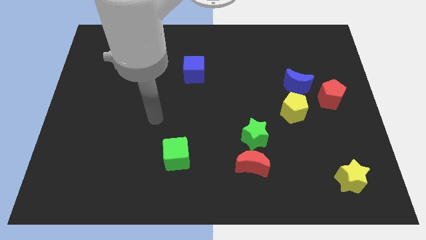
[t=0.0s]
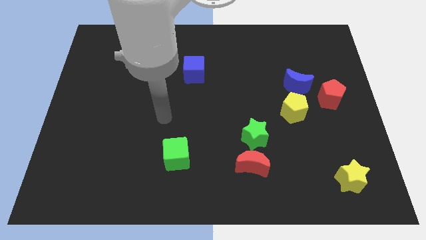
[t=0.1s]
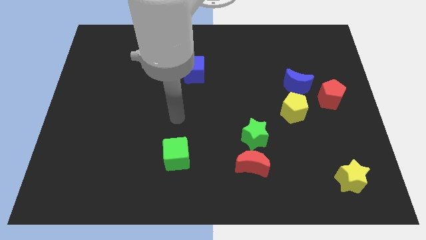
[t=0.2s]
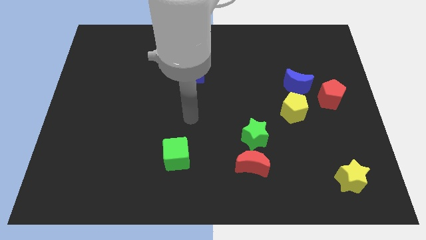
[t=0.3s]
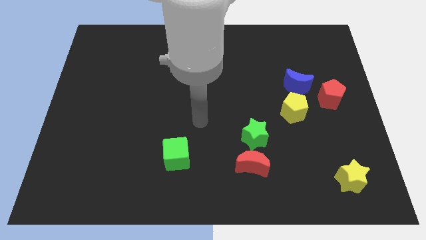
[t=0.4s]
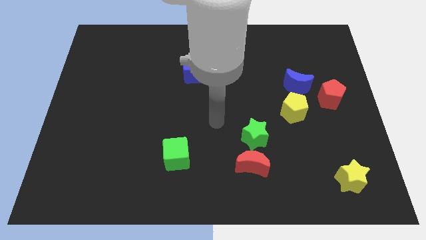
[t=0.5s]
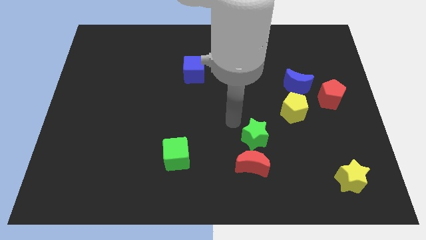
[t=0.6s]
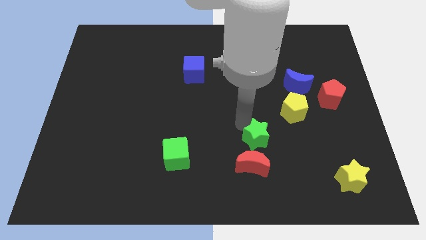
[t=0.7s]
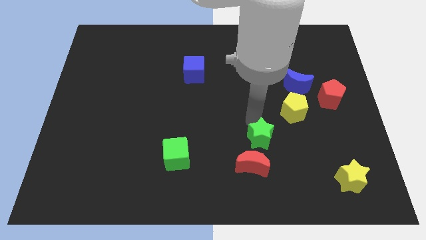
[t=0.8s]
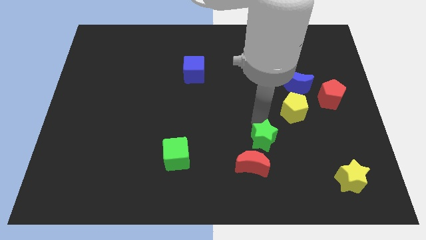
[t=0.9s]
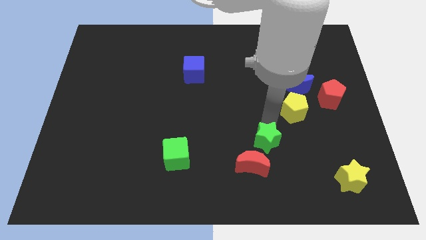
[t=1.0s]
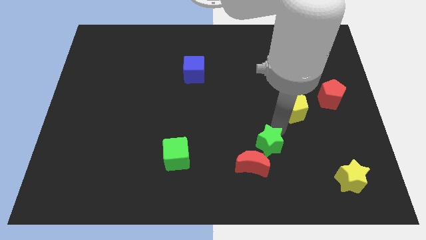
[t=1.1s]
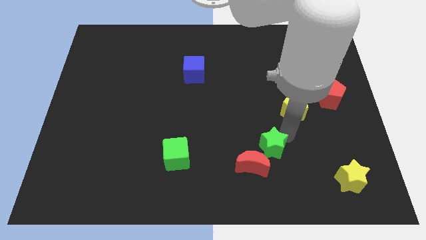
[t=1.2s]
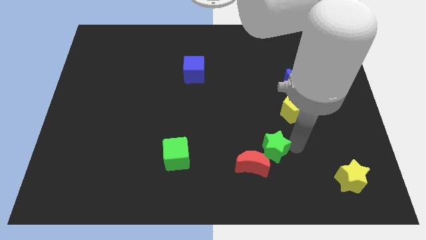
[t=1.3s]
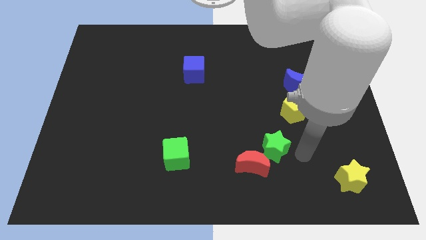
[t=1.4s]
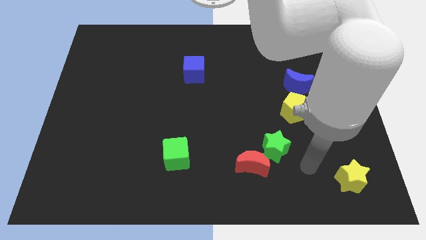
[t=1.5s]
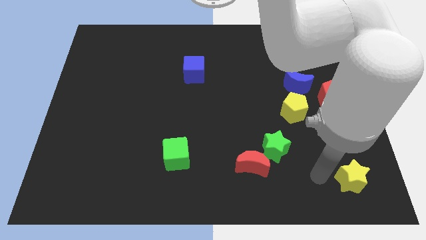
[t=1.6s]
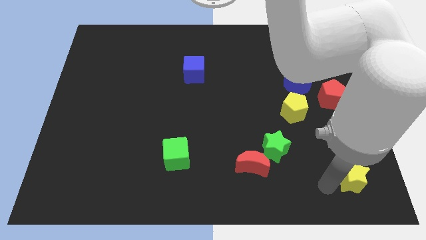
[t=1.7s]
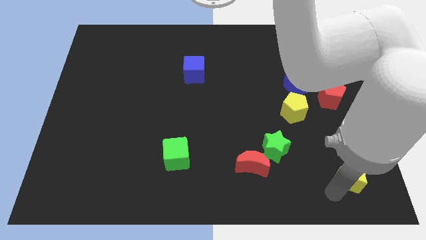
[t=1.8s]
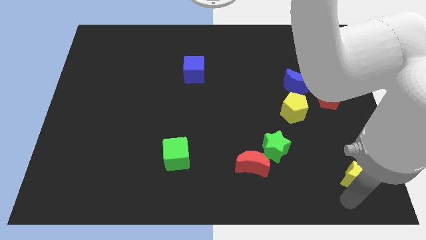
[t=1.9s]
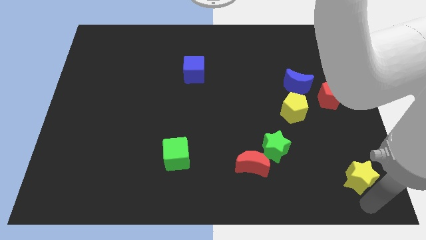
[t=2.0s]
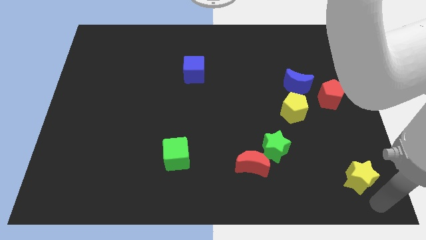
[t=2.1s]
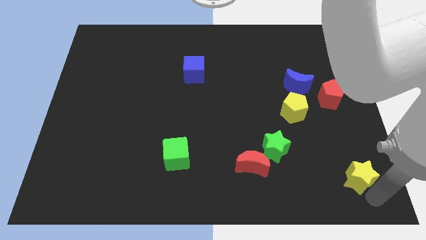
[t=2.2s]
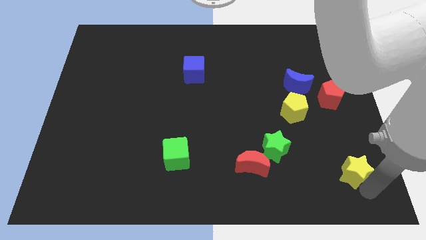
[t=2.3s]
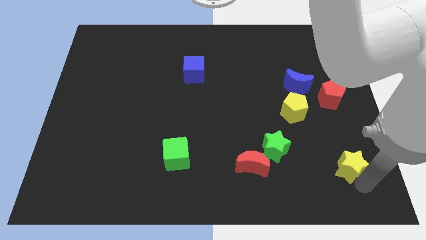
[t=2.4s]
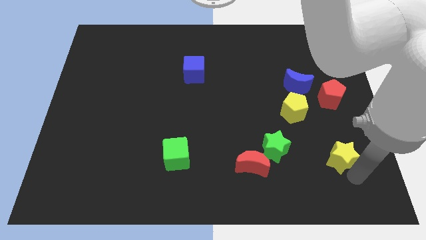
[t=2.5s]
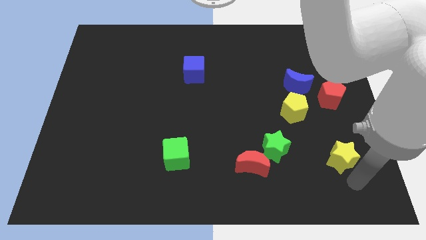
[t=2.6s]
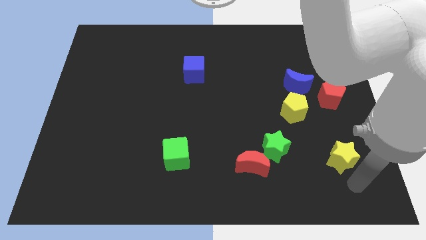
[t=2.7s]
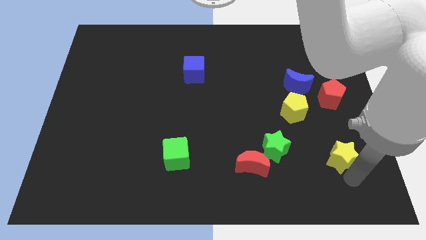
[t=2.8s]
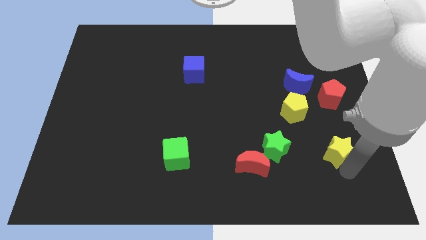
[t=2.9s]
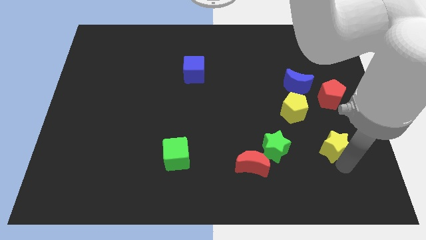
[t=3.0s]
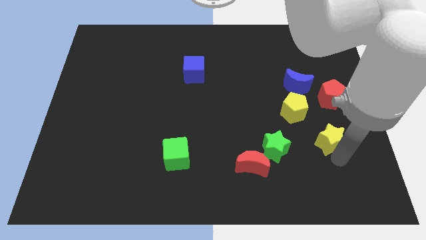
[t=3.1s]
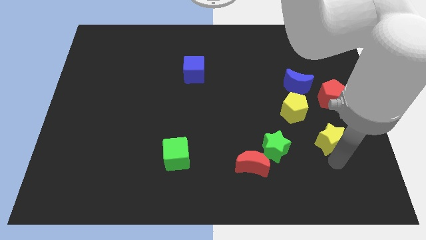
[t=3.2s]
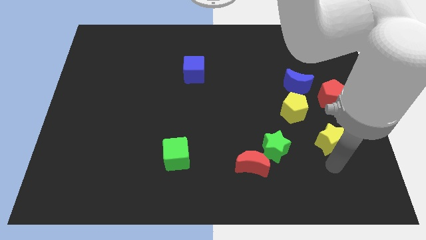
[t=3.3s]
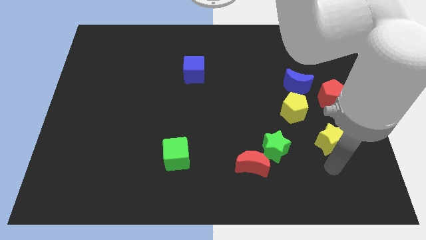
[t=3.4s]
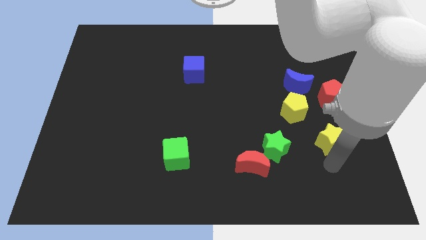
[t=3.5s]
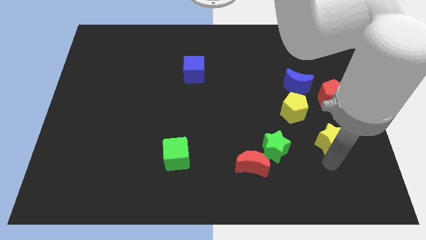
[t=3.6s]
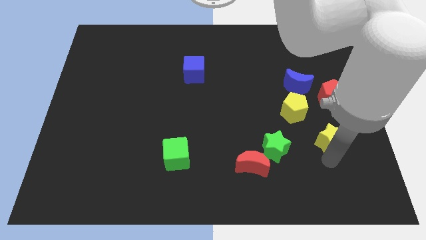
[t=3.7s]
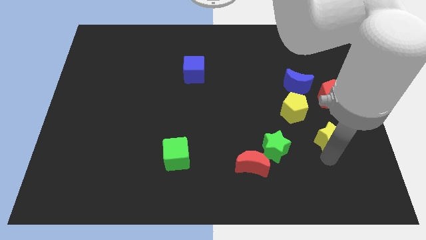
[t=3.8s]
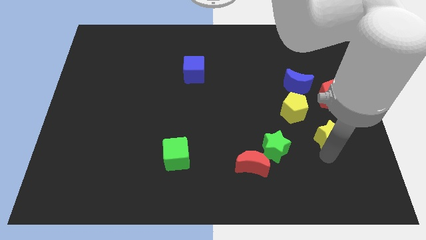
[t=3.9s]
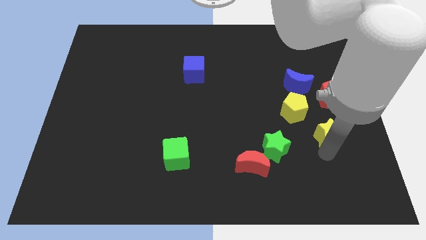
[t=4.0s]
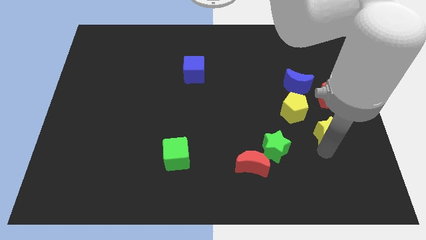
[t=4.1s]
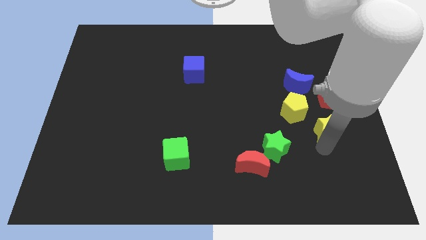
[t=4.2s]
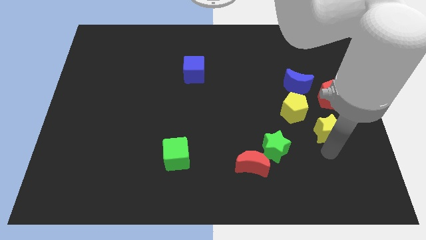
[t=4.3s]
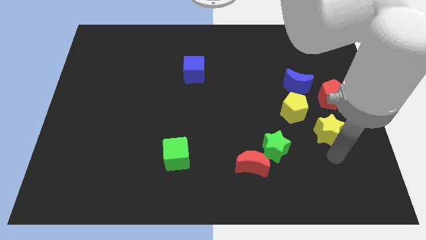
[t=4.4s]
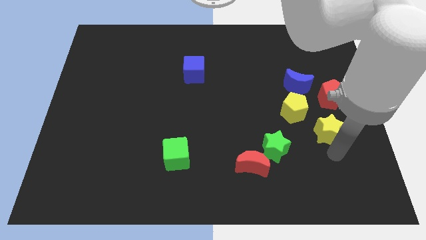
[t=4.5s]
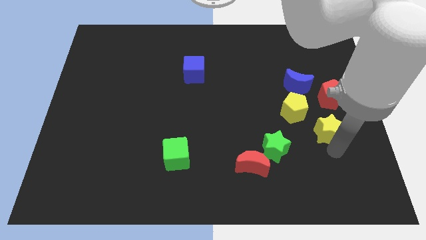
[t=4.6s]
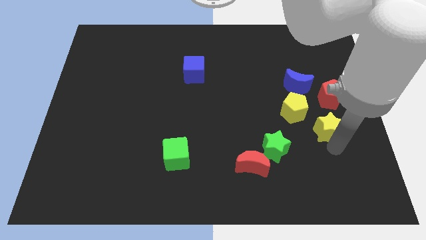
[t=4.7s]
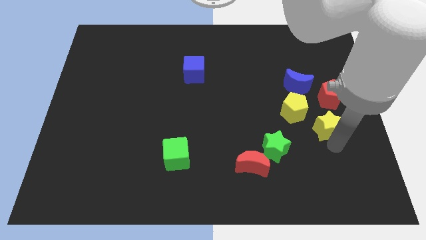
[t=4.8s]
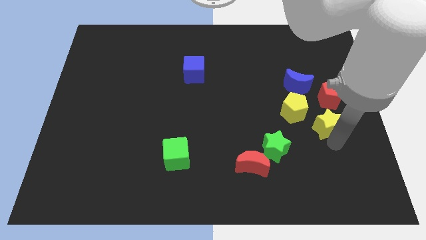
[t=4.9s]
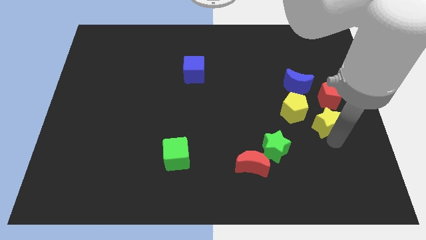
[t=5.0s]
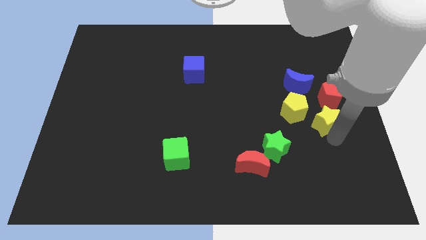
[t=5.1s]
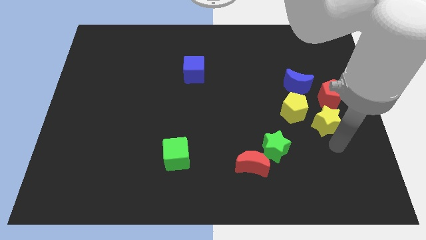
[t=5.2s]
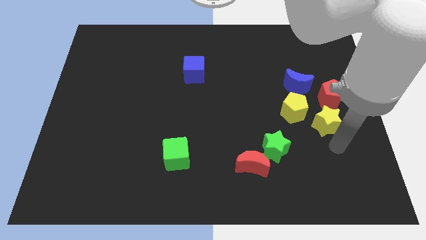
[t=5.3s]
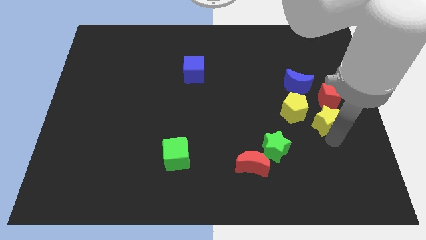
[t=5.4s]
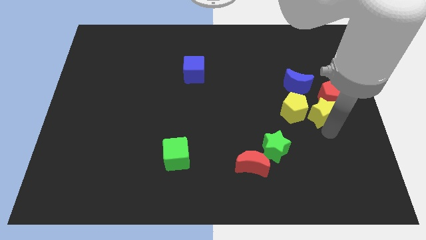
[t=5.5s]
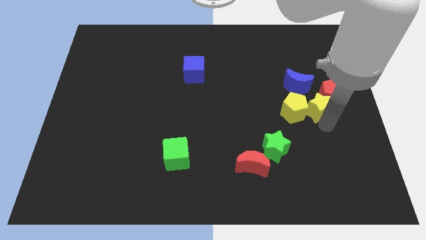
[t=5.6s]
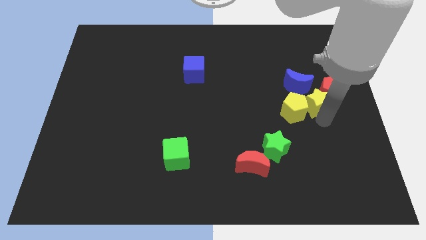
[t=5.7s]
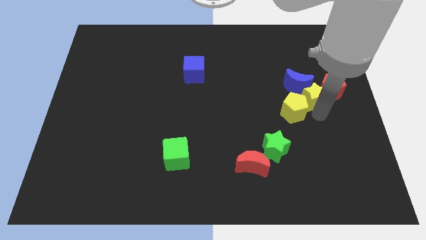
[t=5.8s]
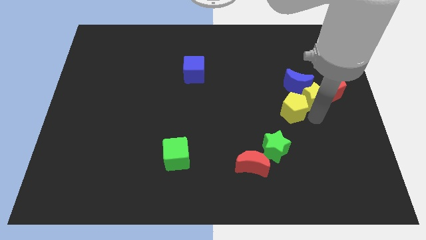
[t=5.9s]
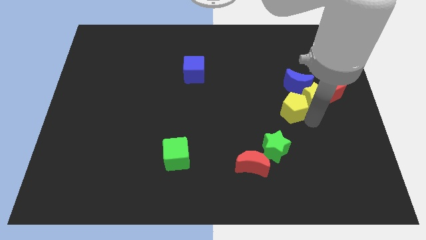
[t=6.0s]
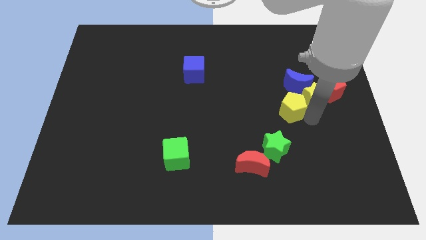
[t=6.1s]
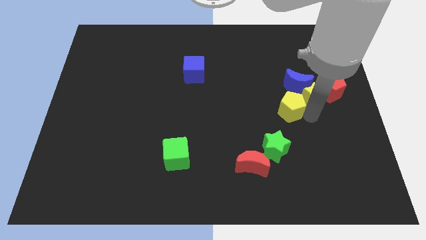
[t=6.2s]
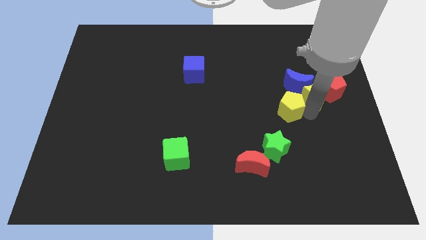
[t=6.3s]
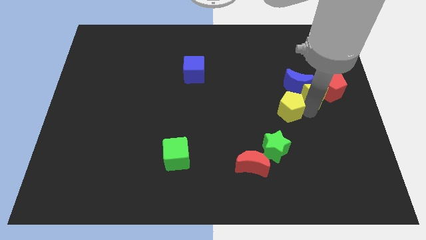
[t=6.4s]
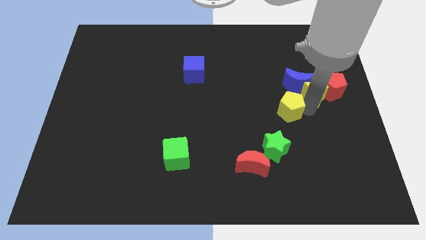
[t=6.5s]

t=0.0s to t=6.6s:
push the yellow star to the top left of the red pentagon
